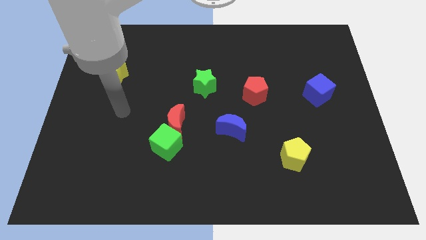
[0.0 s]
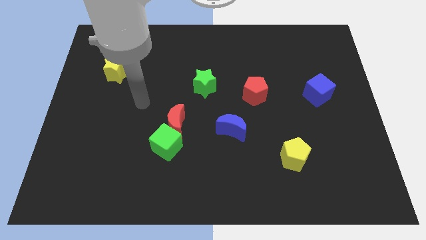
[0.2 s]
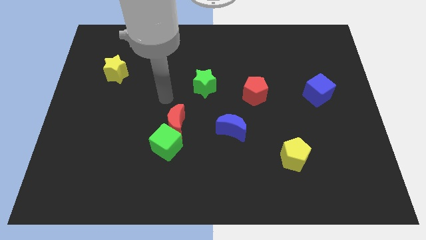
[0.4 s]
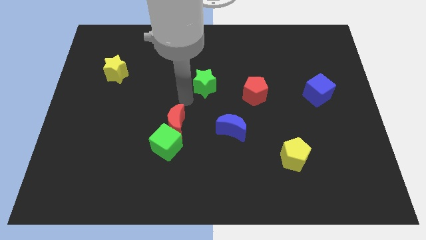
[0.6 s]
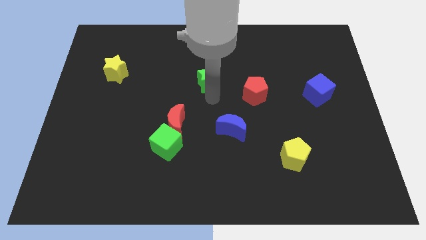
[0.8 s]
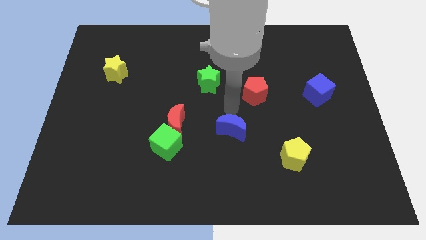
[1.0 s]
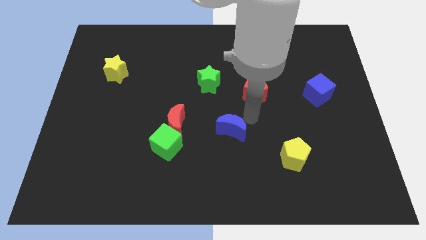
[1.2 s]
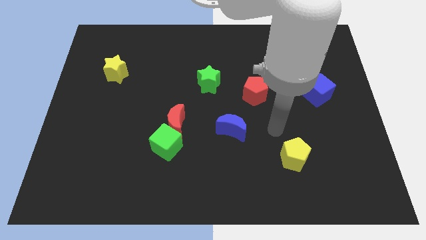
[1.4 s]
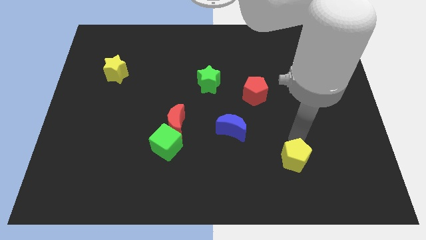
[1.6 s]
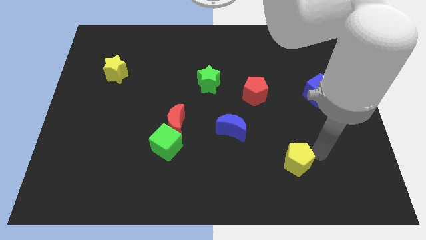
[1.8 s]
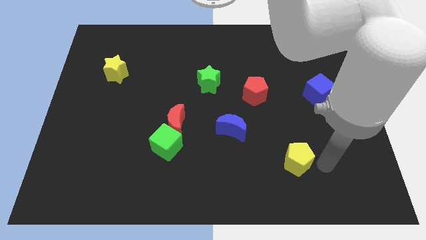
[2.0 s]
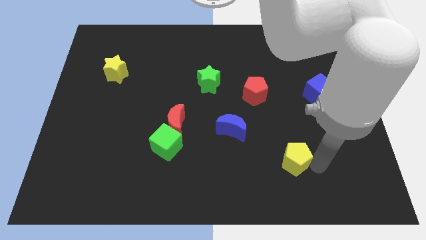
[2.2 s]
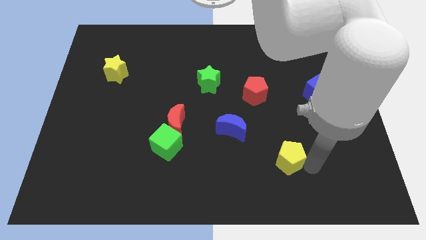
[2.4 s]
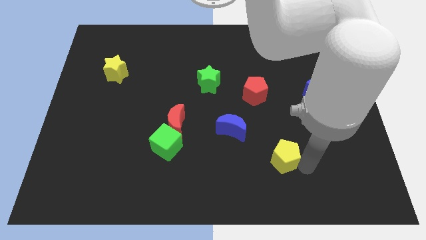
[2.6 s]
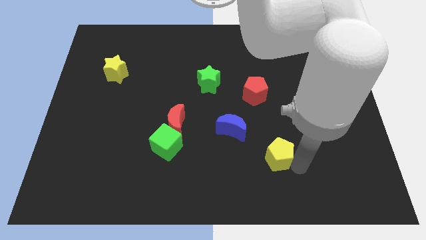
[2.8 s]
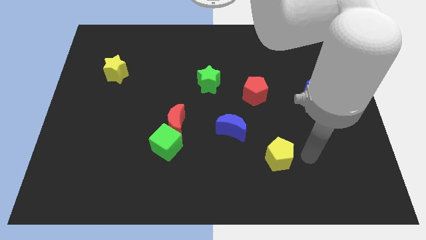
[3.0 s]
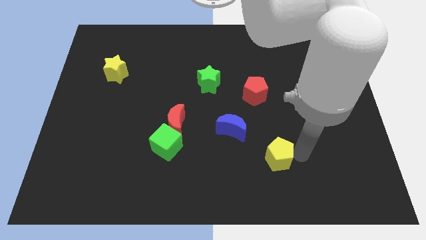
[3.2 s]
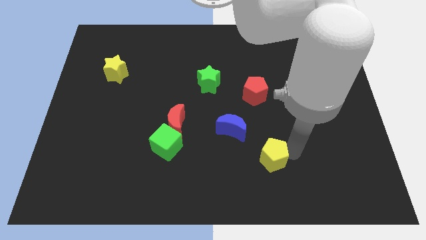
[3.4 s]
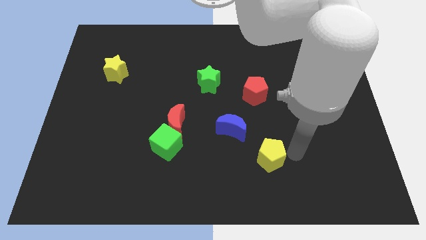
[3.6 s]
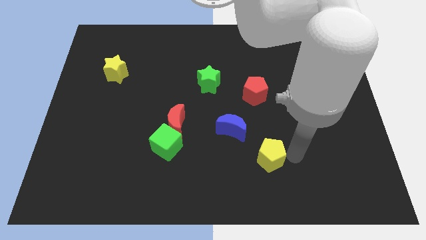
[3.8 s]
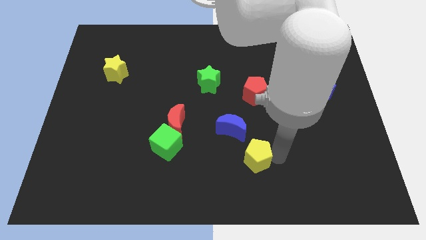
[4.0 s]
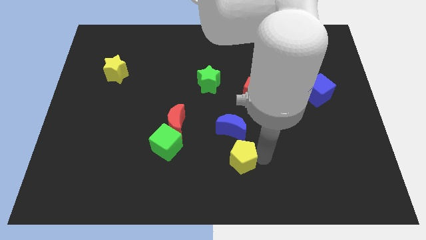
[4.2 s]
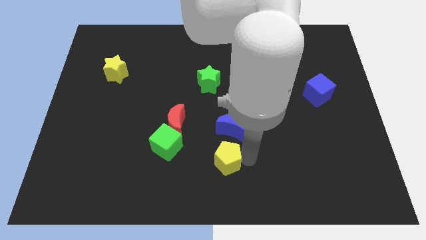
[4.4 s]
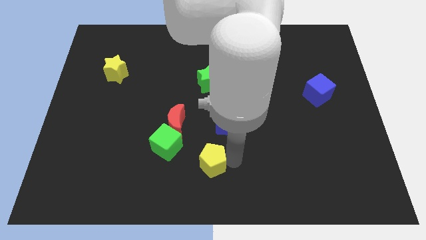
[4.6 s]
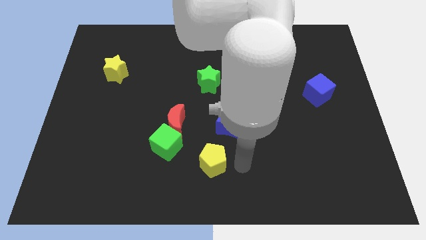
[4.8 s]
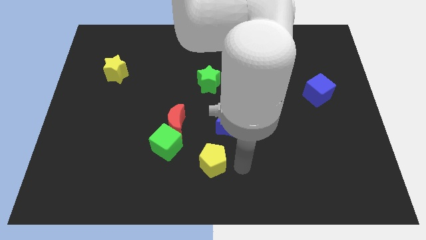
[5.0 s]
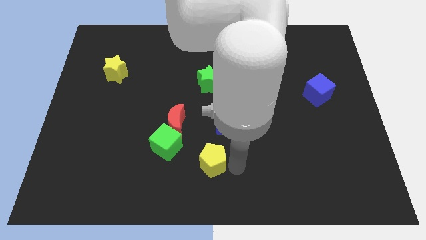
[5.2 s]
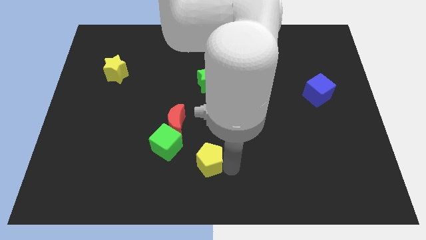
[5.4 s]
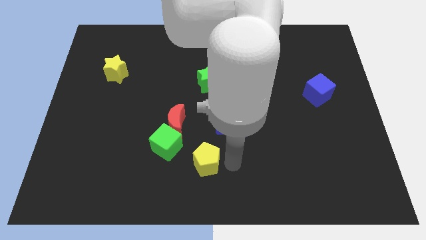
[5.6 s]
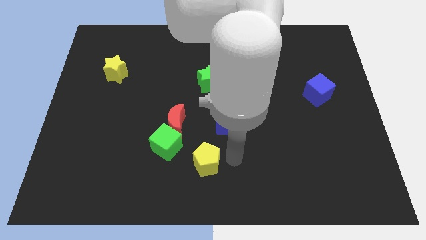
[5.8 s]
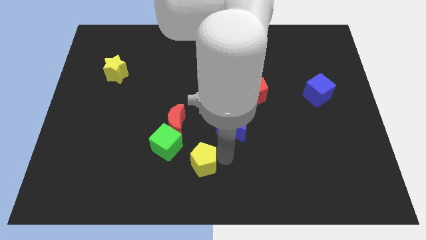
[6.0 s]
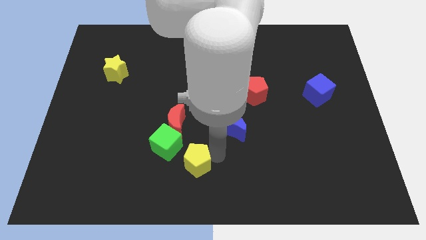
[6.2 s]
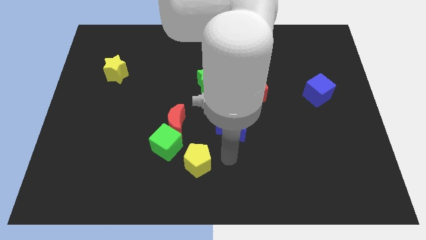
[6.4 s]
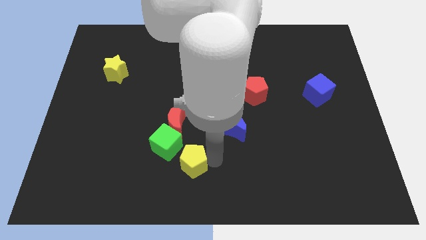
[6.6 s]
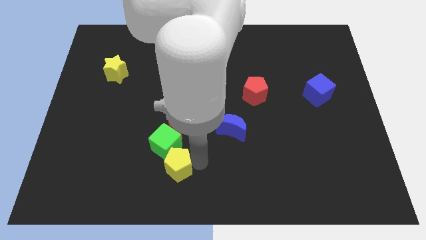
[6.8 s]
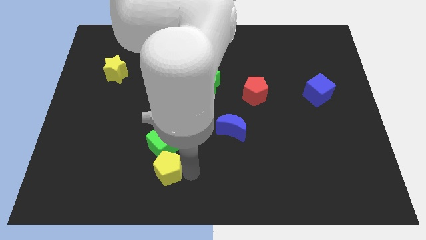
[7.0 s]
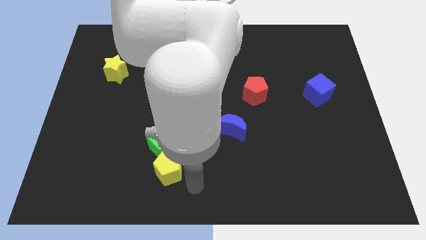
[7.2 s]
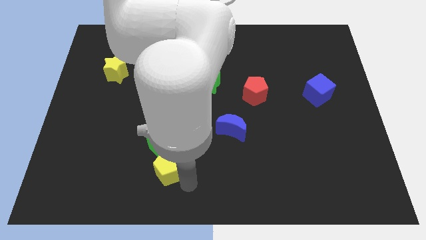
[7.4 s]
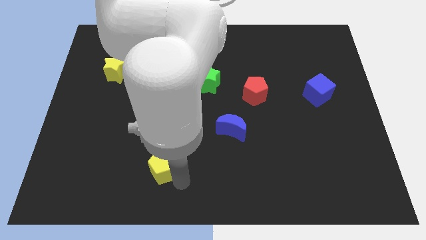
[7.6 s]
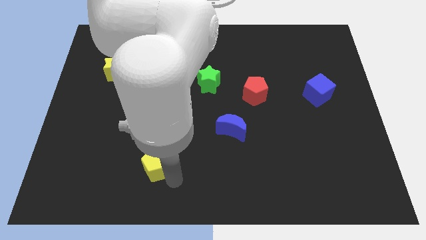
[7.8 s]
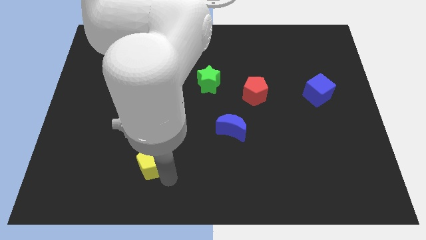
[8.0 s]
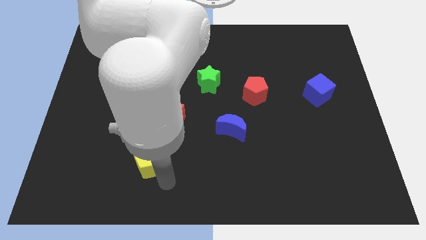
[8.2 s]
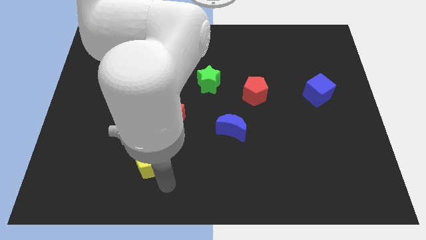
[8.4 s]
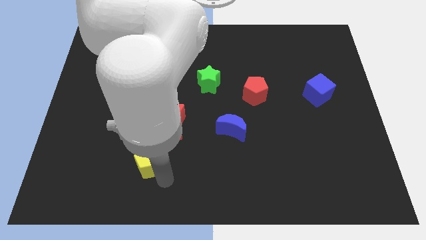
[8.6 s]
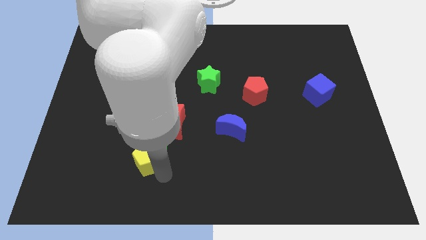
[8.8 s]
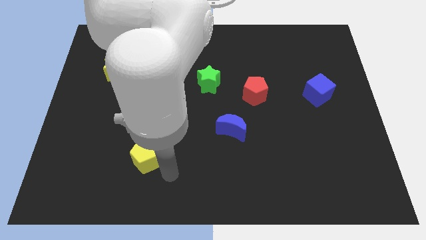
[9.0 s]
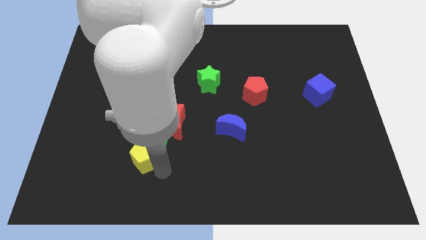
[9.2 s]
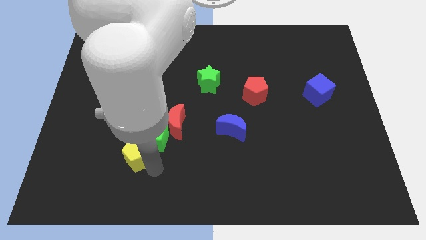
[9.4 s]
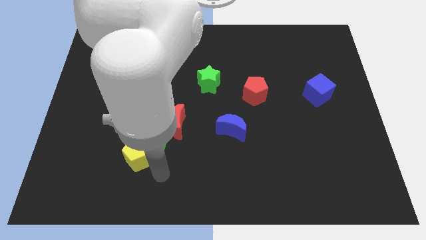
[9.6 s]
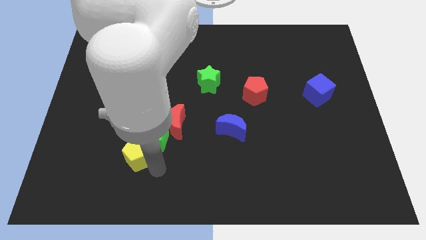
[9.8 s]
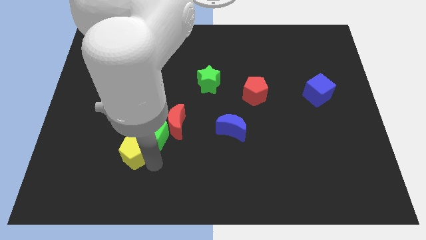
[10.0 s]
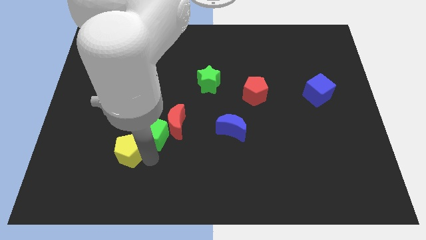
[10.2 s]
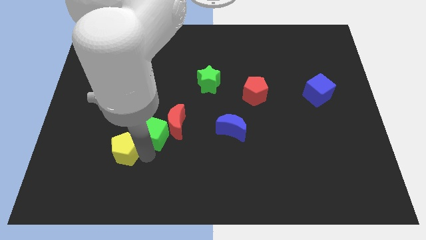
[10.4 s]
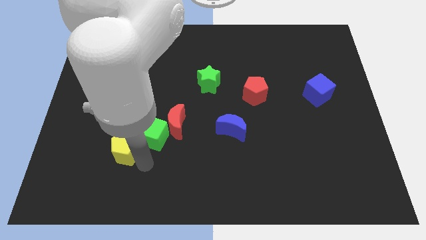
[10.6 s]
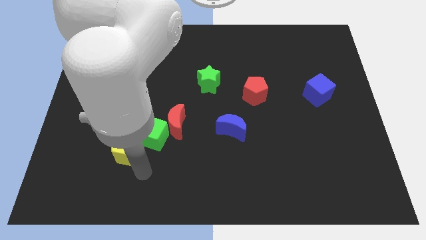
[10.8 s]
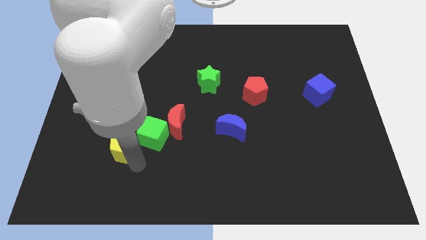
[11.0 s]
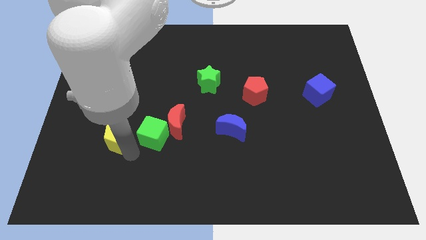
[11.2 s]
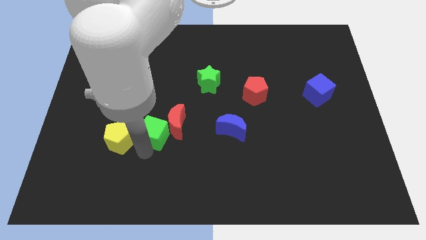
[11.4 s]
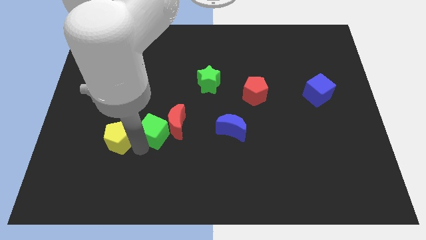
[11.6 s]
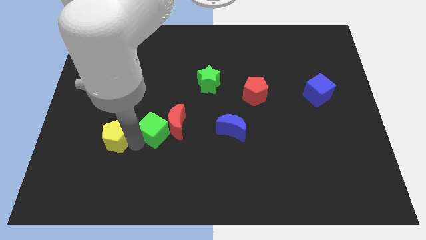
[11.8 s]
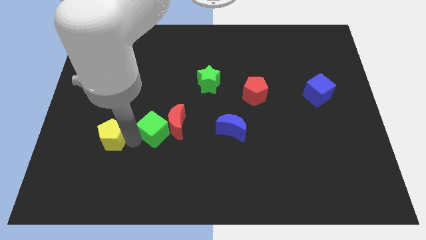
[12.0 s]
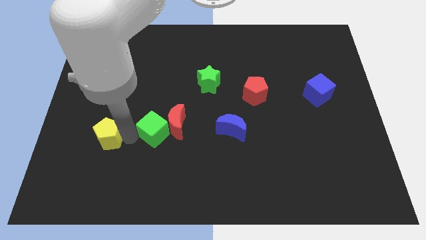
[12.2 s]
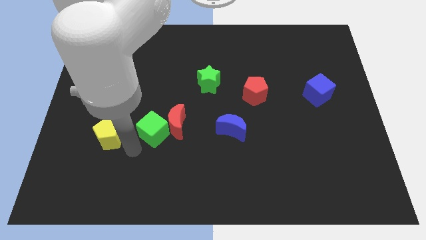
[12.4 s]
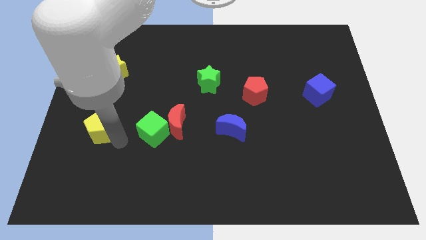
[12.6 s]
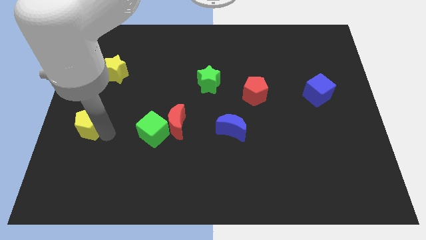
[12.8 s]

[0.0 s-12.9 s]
push the yellow pentagon to the center left
